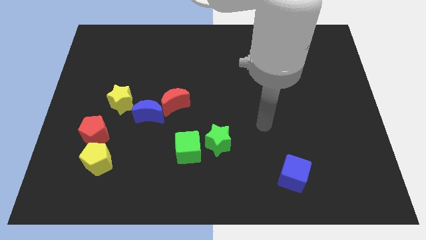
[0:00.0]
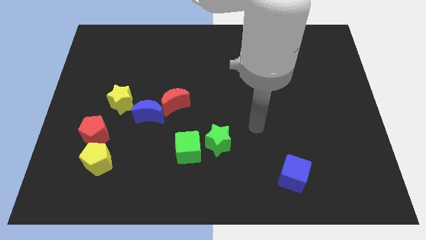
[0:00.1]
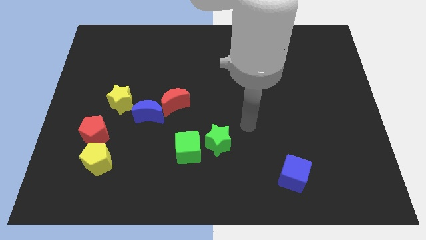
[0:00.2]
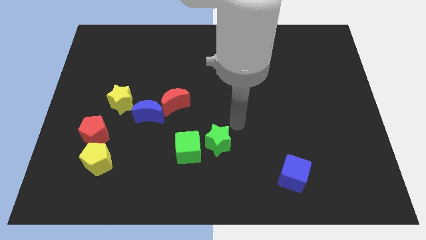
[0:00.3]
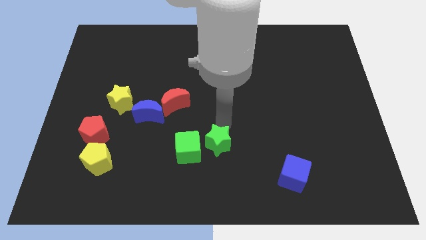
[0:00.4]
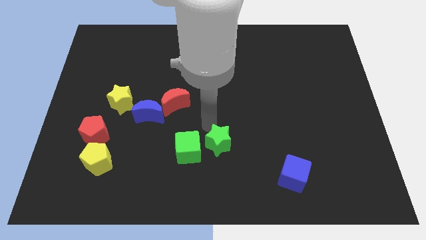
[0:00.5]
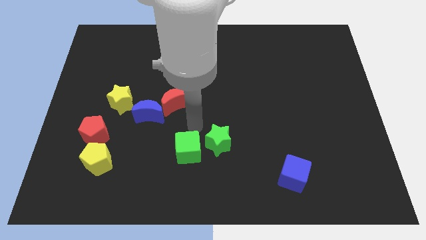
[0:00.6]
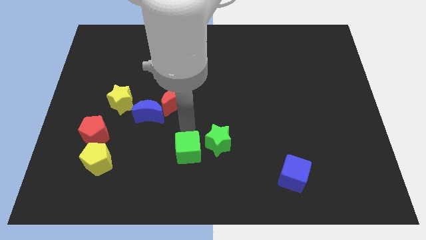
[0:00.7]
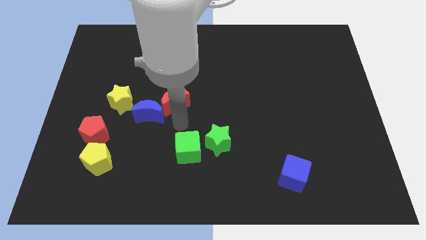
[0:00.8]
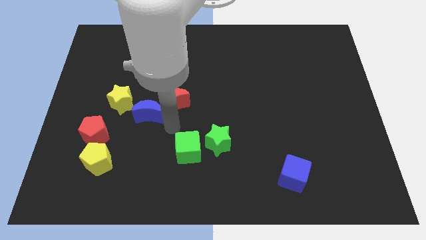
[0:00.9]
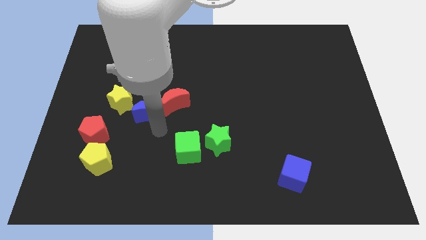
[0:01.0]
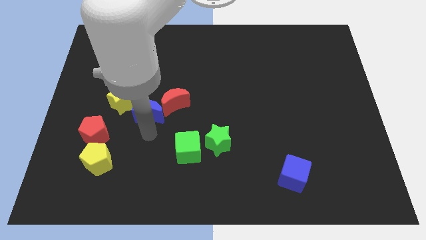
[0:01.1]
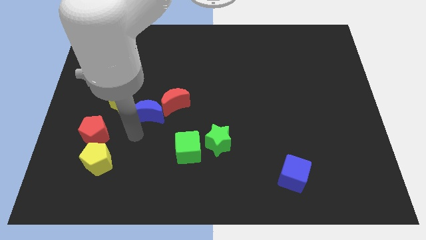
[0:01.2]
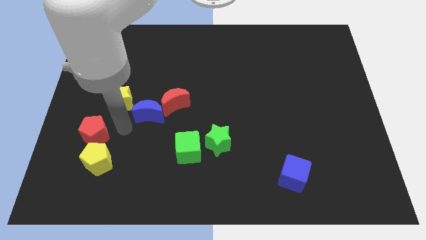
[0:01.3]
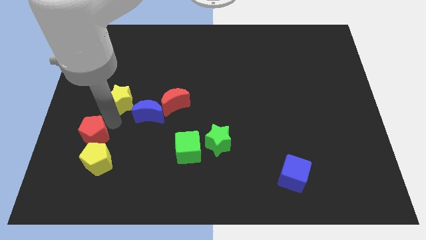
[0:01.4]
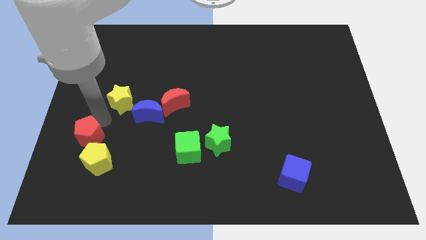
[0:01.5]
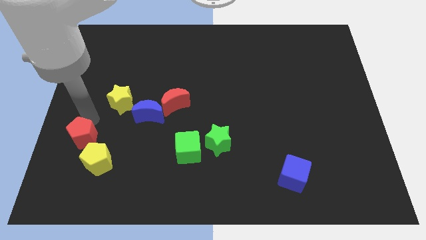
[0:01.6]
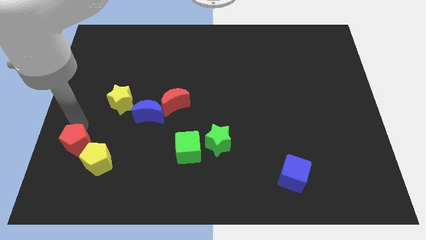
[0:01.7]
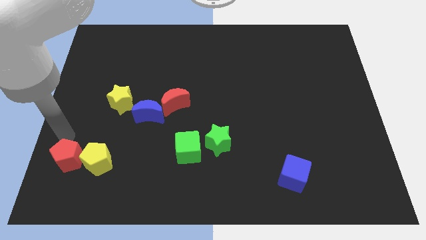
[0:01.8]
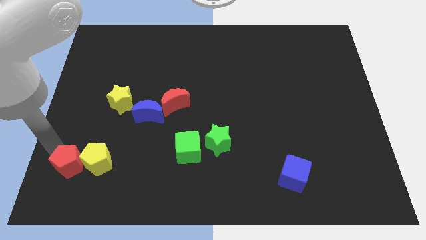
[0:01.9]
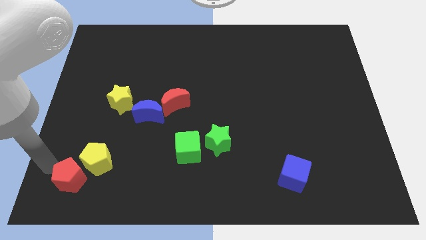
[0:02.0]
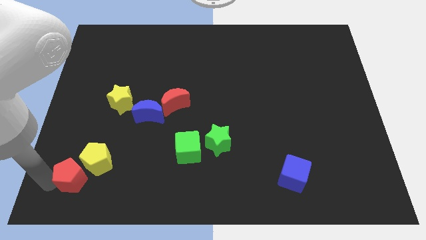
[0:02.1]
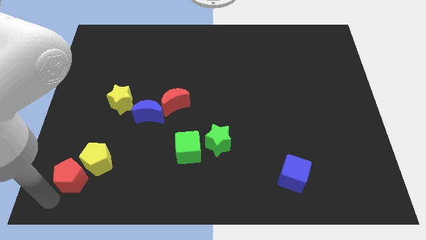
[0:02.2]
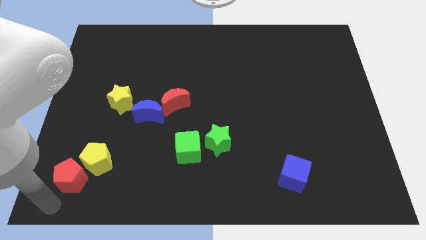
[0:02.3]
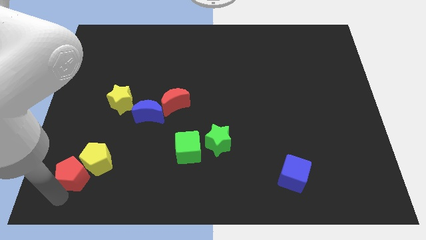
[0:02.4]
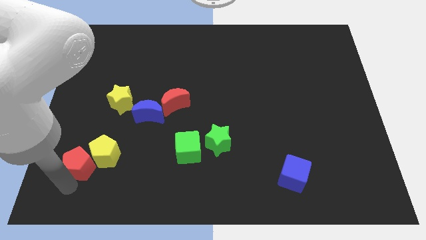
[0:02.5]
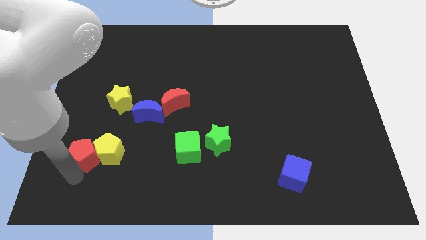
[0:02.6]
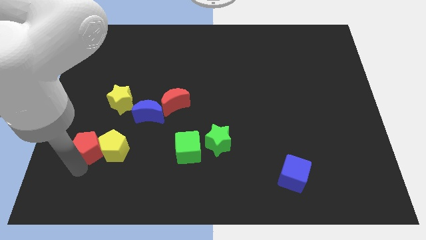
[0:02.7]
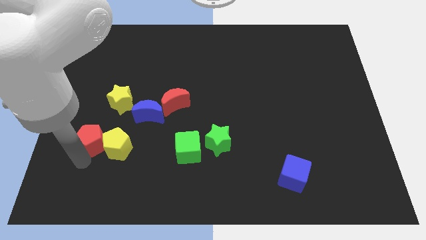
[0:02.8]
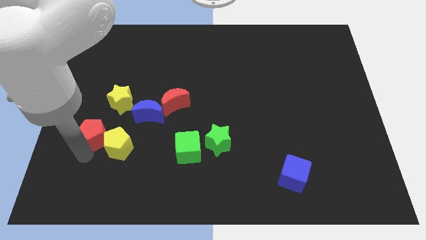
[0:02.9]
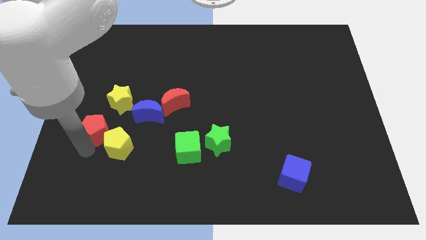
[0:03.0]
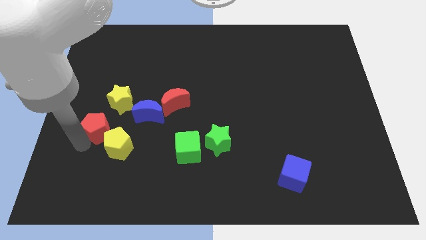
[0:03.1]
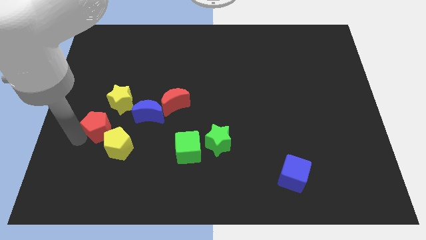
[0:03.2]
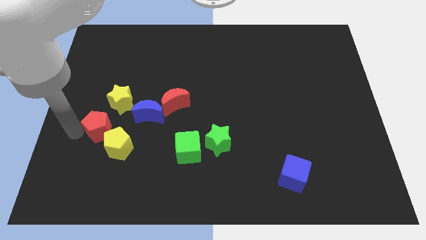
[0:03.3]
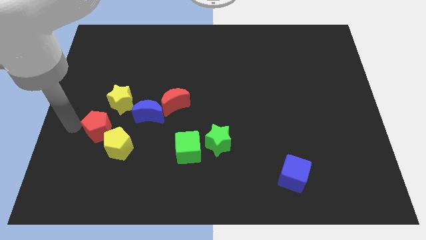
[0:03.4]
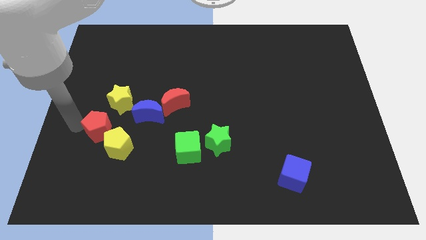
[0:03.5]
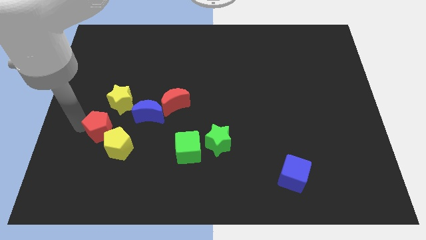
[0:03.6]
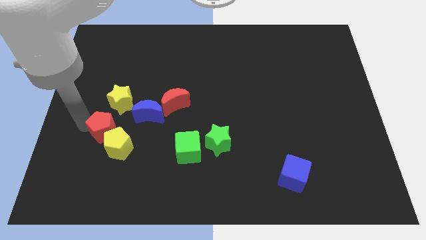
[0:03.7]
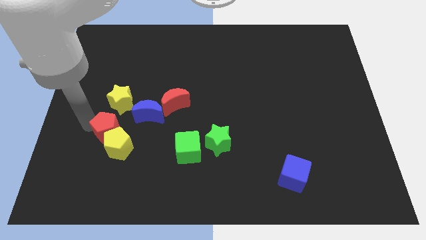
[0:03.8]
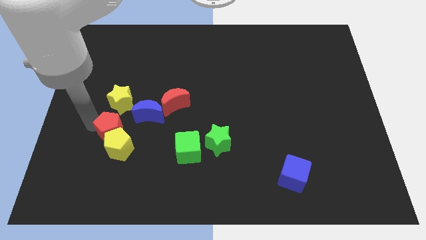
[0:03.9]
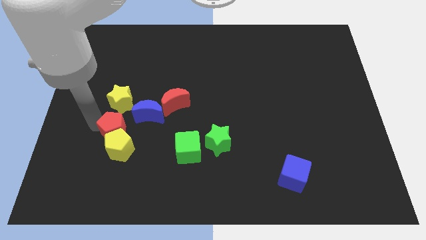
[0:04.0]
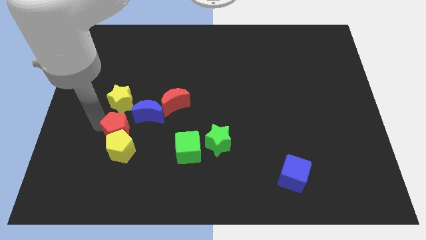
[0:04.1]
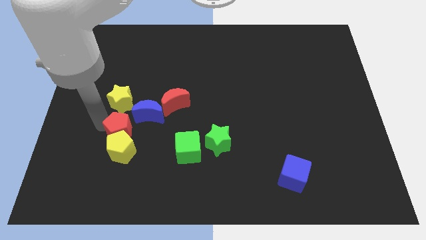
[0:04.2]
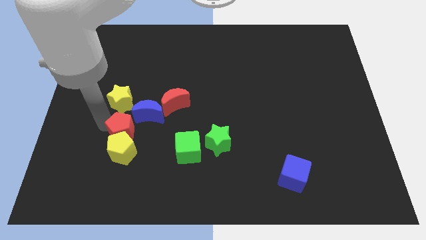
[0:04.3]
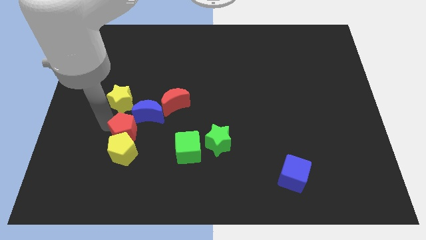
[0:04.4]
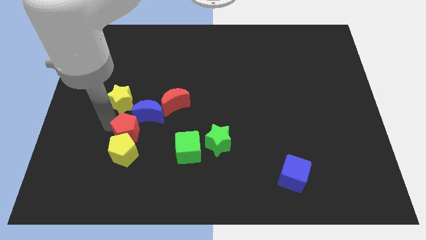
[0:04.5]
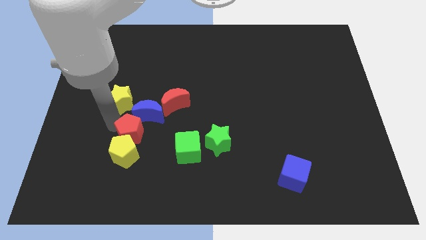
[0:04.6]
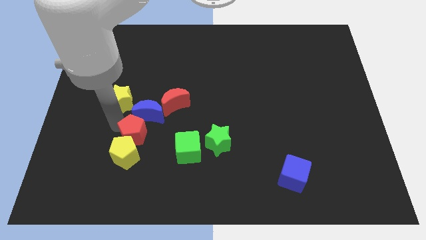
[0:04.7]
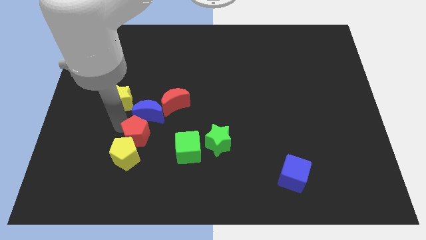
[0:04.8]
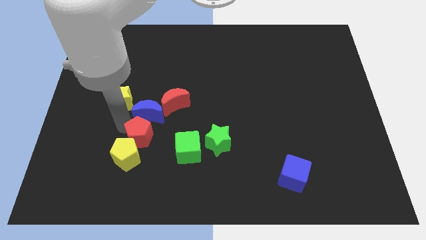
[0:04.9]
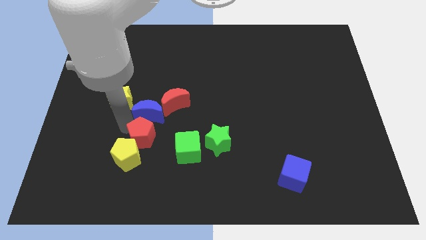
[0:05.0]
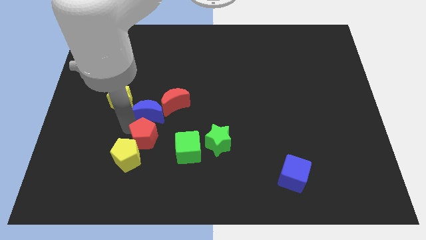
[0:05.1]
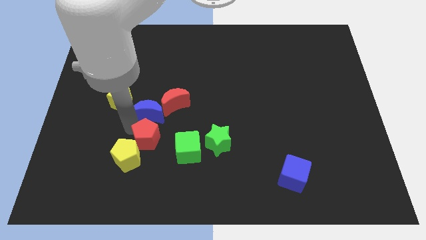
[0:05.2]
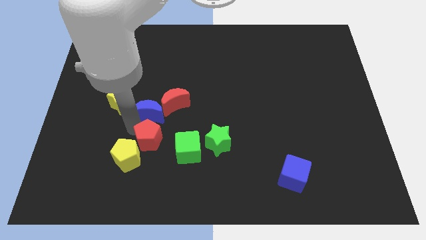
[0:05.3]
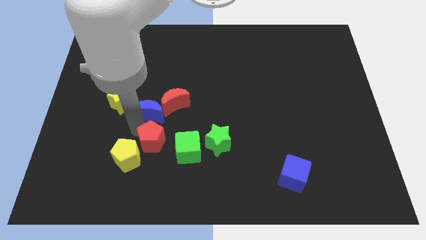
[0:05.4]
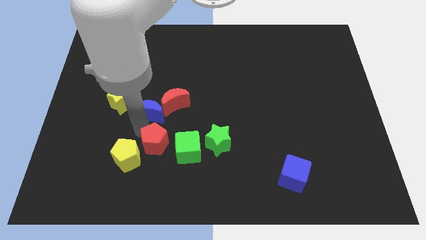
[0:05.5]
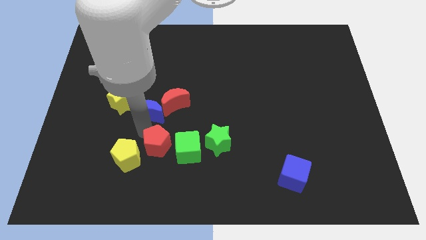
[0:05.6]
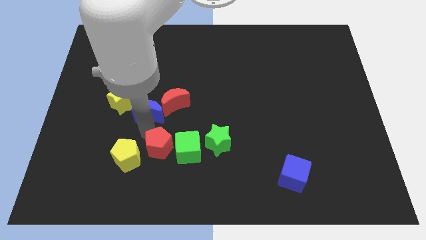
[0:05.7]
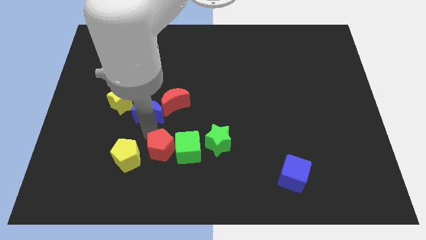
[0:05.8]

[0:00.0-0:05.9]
push the red pentagon next to the green cube

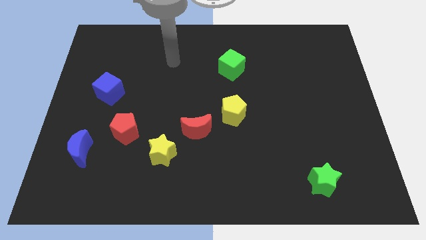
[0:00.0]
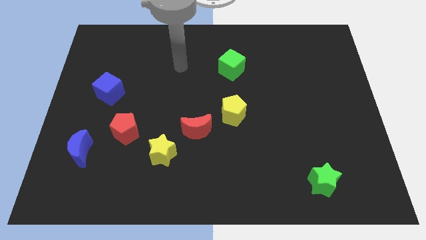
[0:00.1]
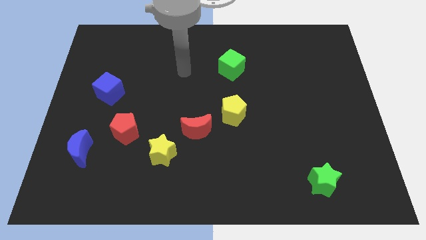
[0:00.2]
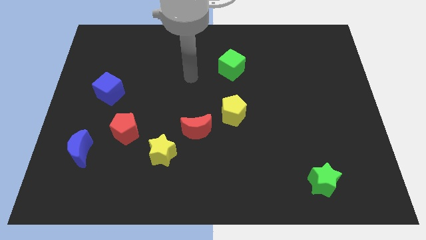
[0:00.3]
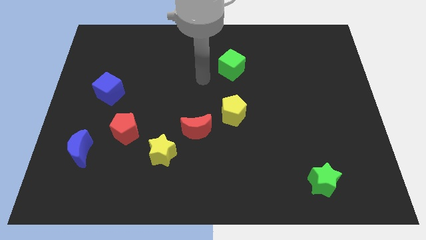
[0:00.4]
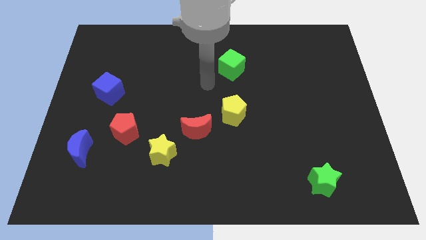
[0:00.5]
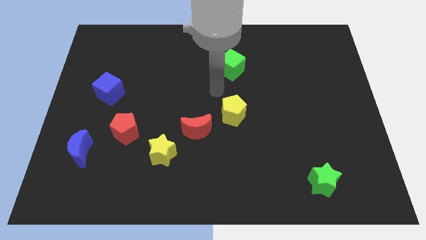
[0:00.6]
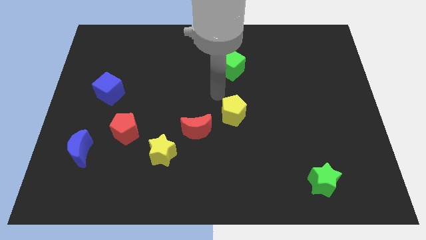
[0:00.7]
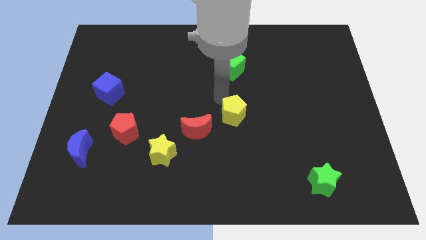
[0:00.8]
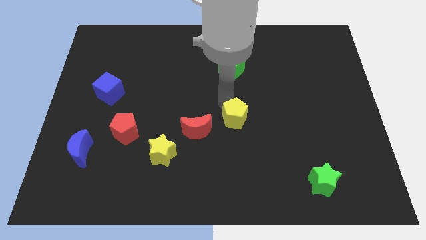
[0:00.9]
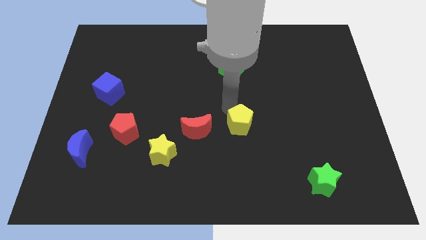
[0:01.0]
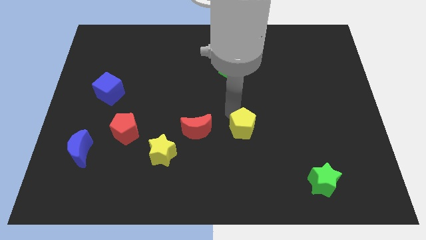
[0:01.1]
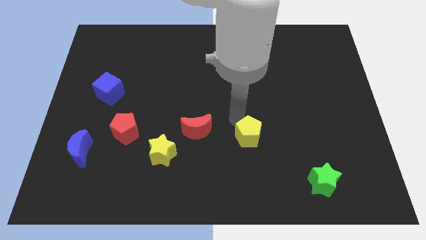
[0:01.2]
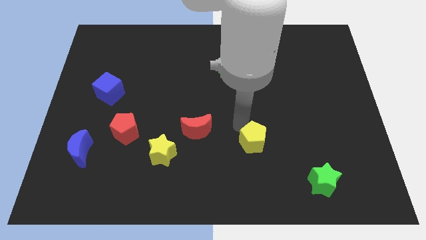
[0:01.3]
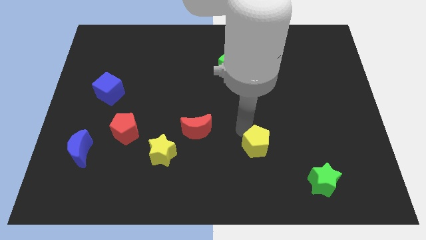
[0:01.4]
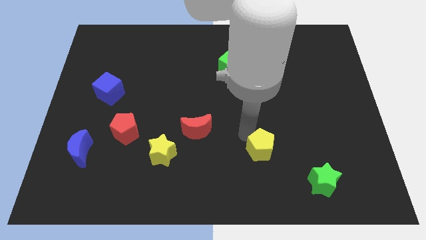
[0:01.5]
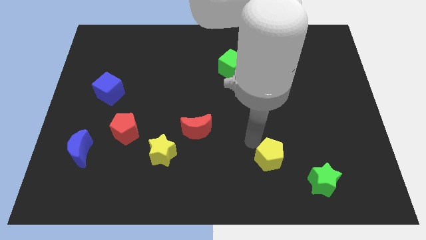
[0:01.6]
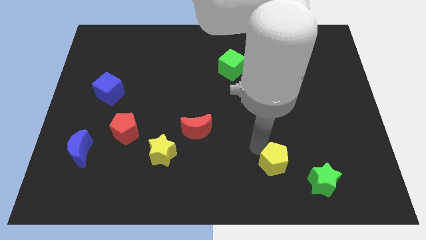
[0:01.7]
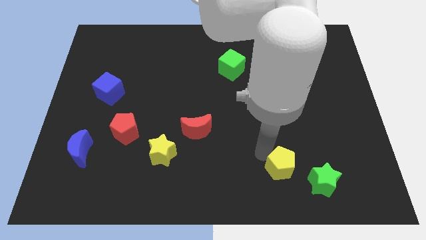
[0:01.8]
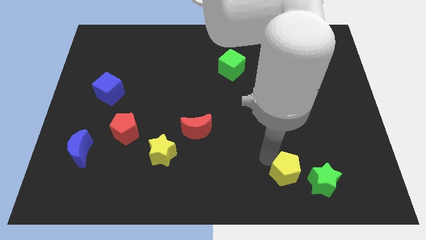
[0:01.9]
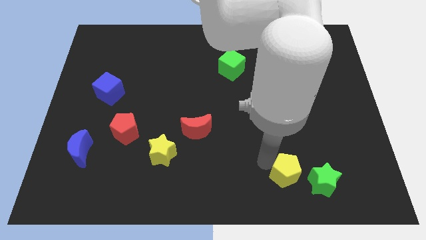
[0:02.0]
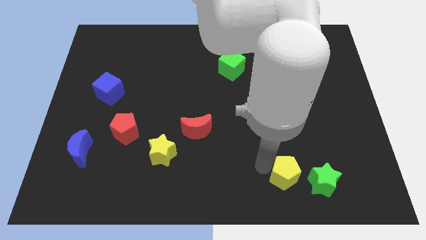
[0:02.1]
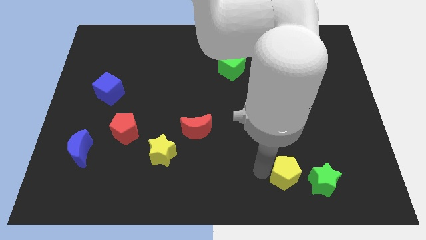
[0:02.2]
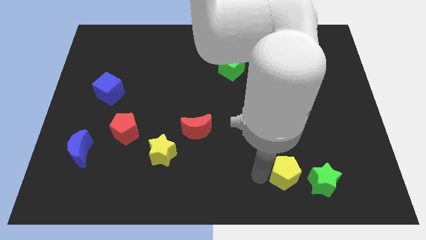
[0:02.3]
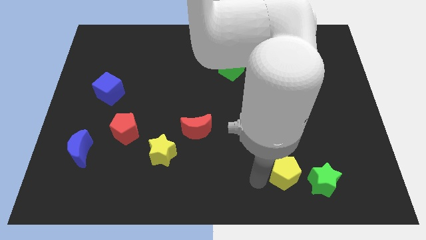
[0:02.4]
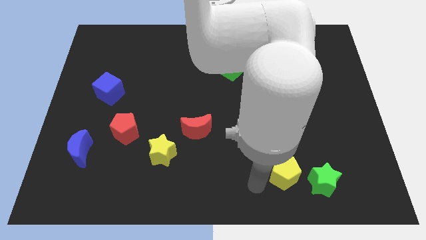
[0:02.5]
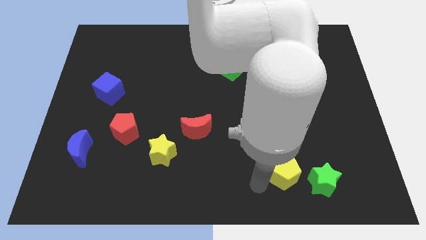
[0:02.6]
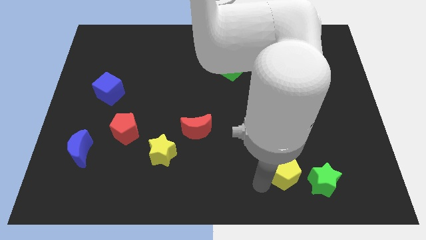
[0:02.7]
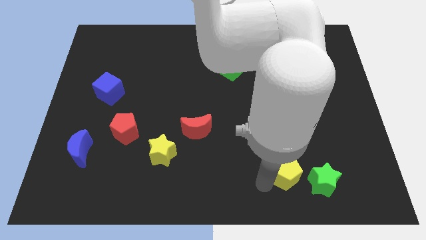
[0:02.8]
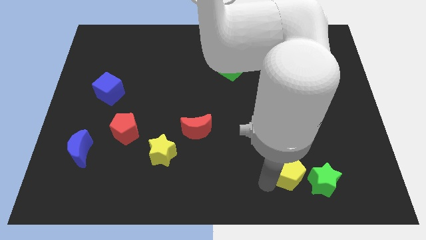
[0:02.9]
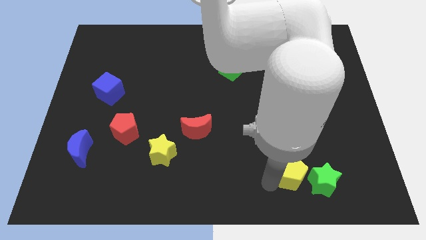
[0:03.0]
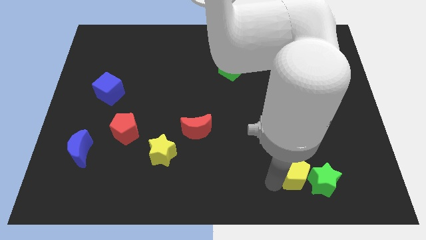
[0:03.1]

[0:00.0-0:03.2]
put the yellow pentagon next to the green star
